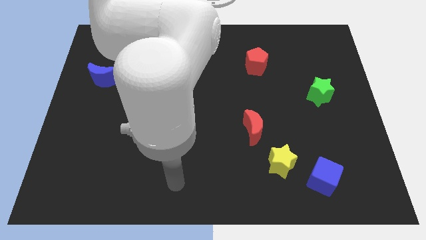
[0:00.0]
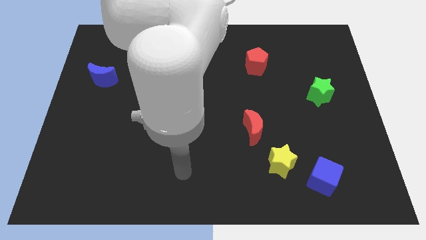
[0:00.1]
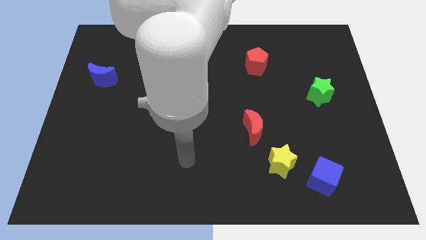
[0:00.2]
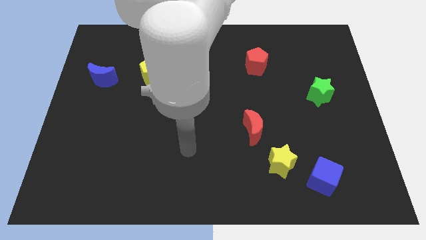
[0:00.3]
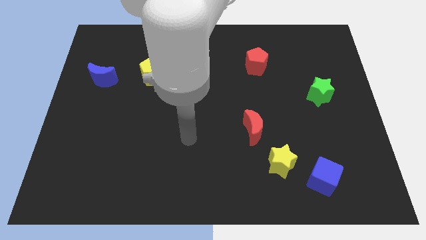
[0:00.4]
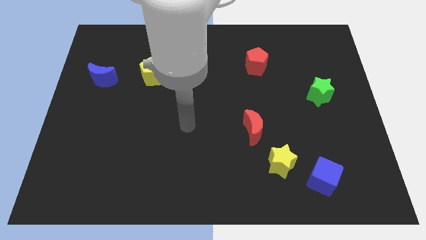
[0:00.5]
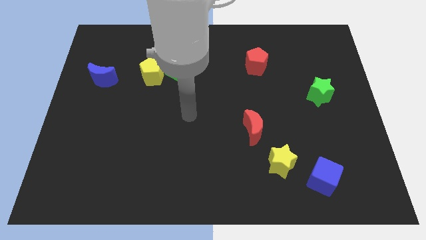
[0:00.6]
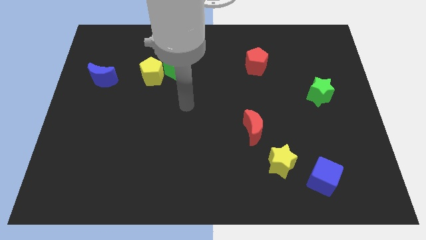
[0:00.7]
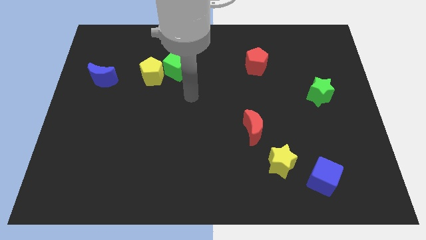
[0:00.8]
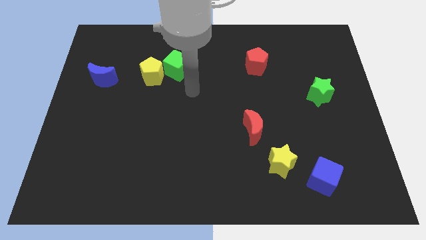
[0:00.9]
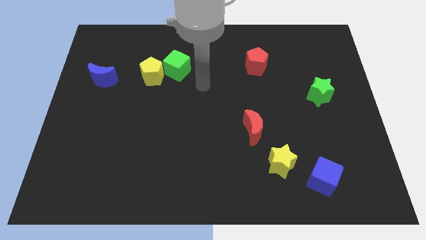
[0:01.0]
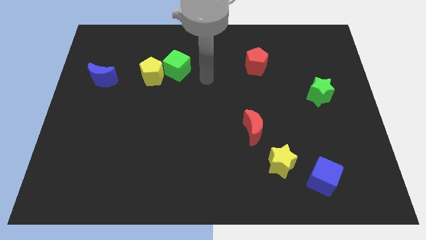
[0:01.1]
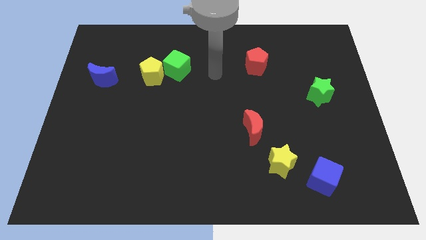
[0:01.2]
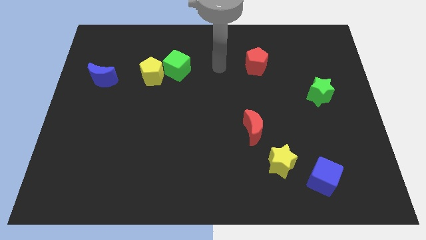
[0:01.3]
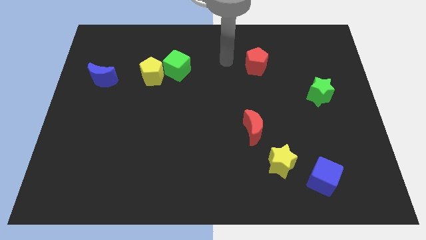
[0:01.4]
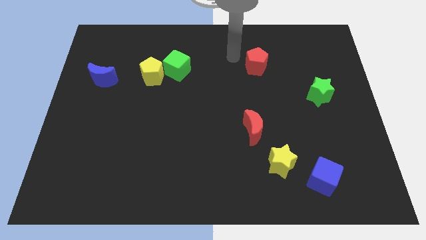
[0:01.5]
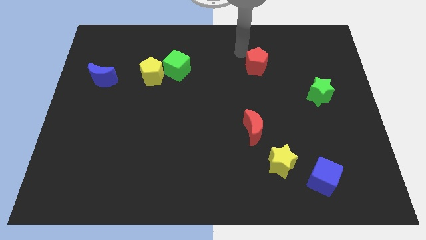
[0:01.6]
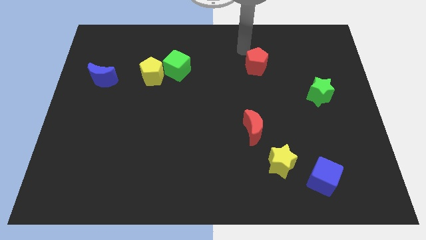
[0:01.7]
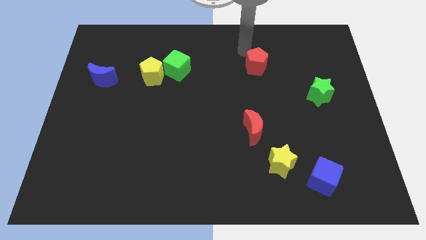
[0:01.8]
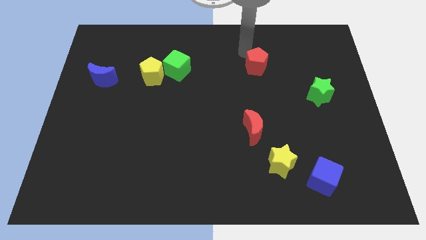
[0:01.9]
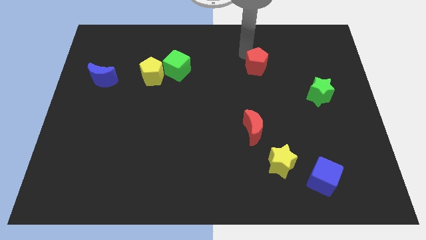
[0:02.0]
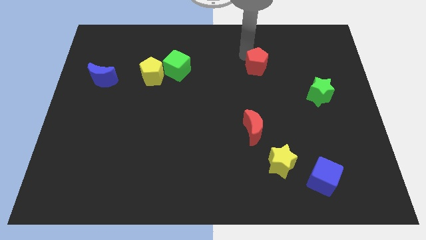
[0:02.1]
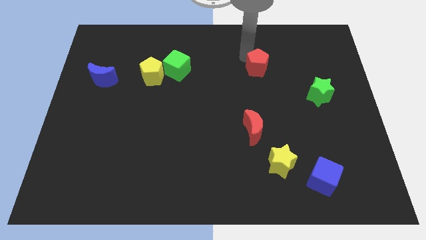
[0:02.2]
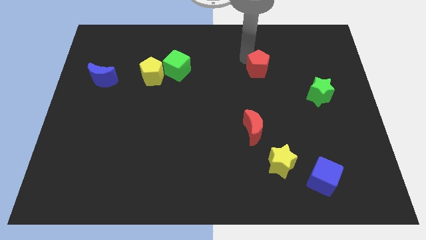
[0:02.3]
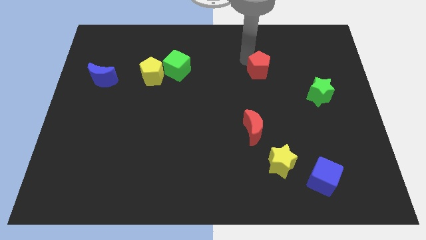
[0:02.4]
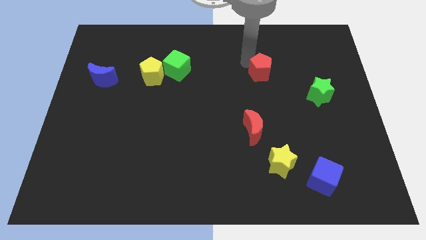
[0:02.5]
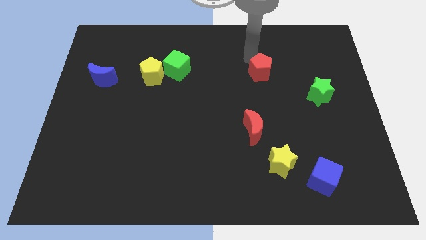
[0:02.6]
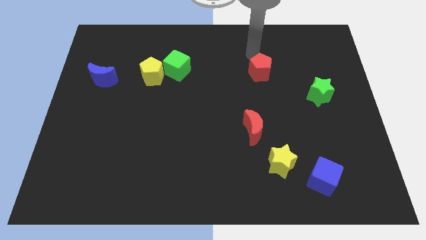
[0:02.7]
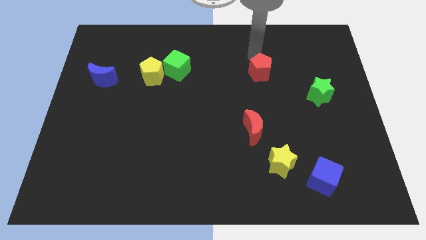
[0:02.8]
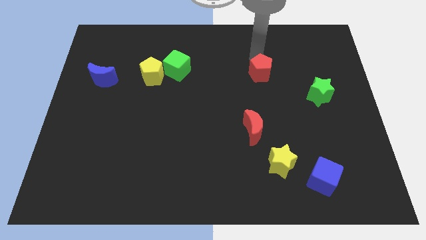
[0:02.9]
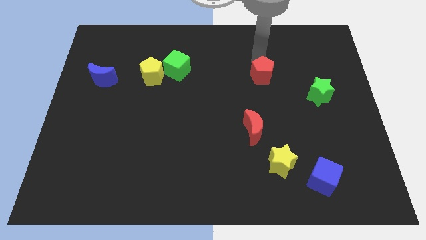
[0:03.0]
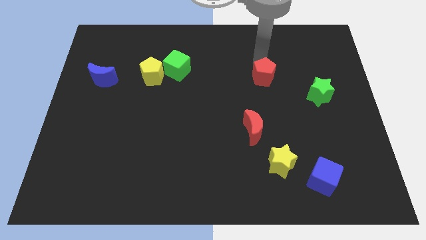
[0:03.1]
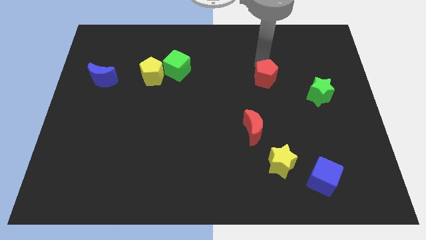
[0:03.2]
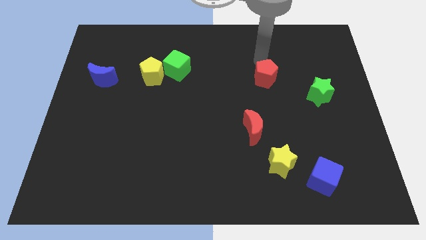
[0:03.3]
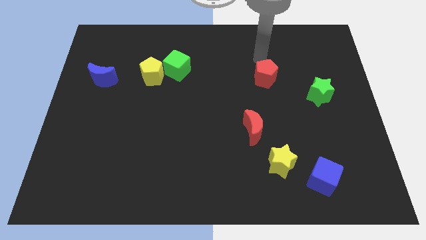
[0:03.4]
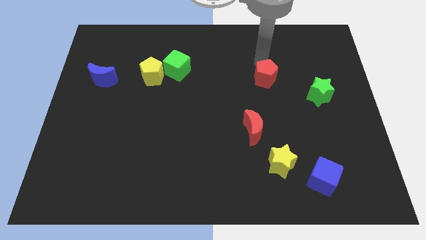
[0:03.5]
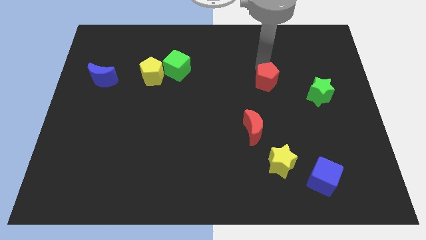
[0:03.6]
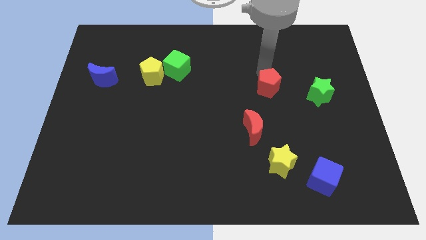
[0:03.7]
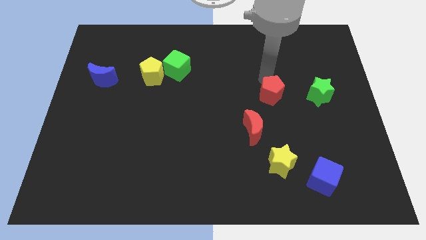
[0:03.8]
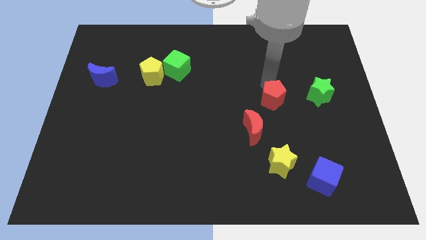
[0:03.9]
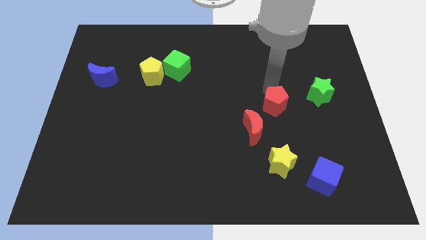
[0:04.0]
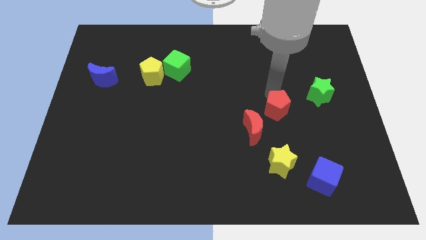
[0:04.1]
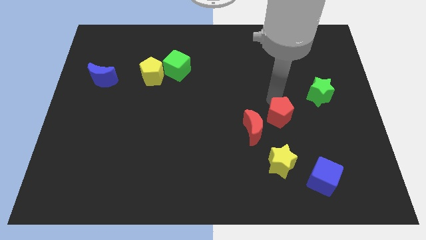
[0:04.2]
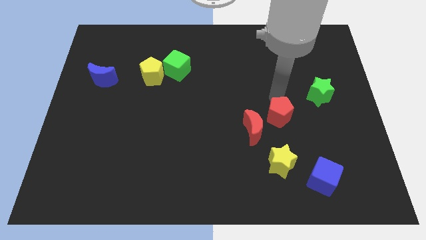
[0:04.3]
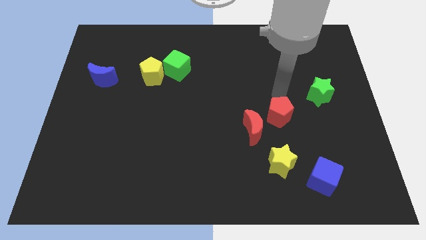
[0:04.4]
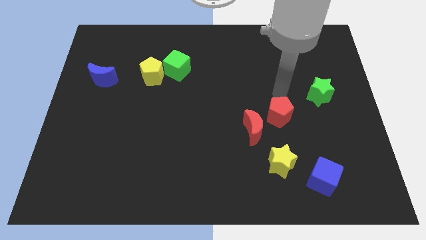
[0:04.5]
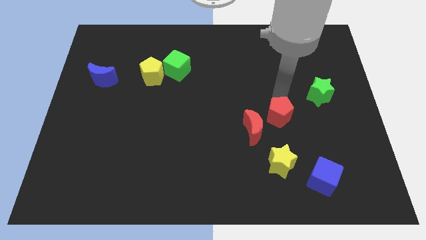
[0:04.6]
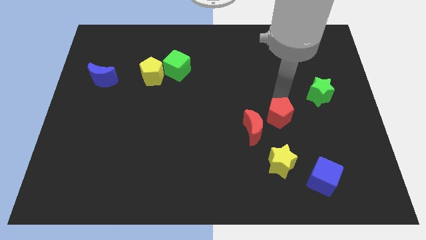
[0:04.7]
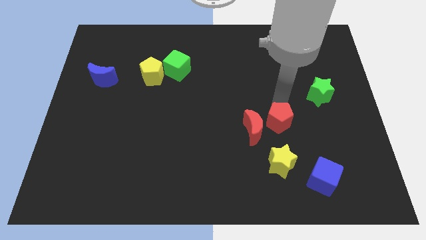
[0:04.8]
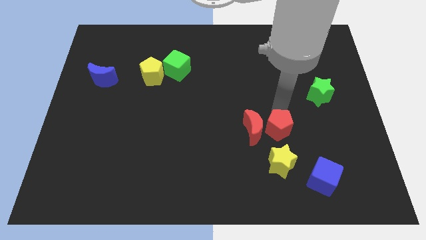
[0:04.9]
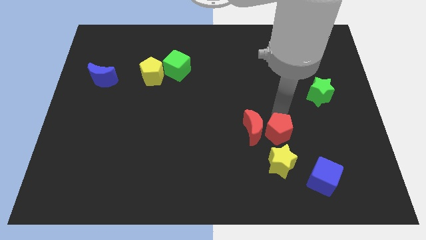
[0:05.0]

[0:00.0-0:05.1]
push the red pentagon down

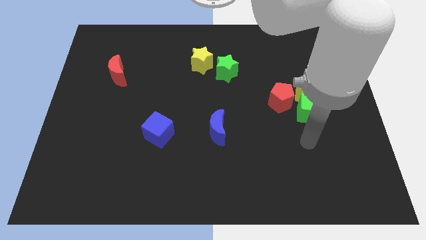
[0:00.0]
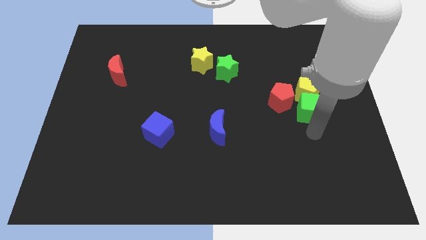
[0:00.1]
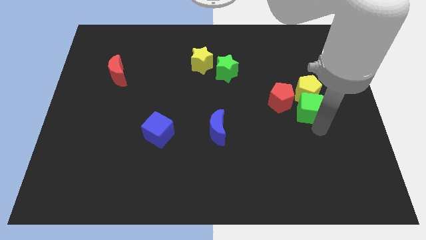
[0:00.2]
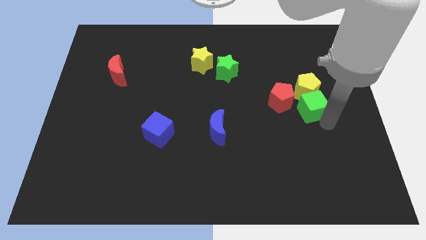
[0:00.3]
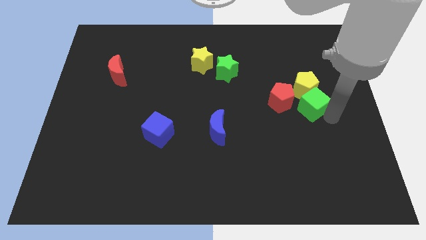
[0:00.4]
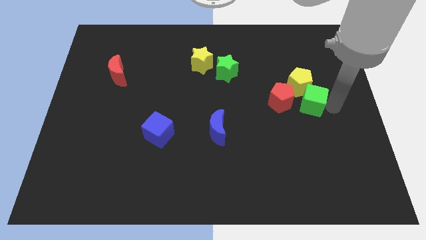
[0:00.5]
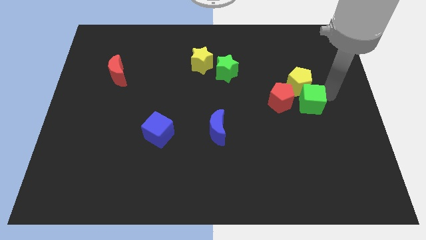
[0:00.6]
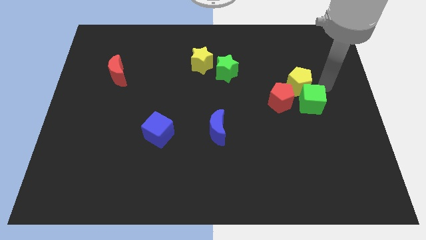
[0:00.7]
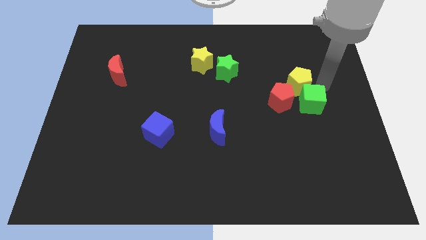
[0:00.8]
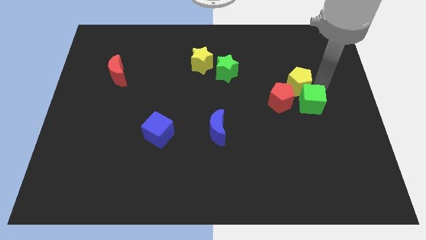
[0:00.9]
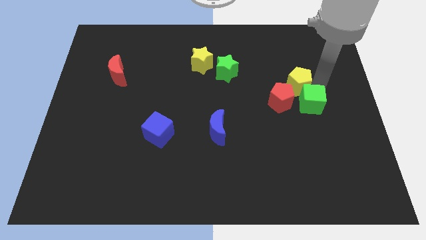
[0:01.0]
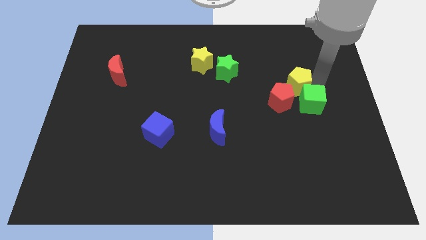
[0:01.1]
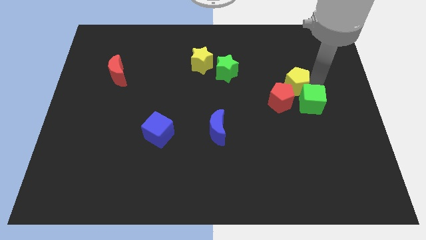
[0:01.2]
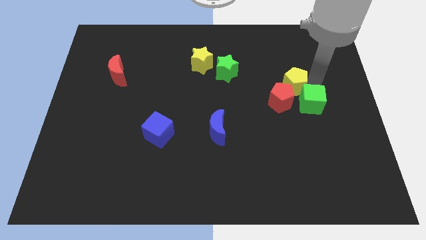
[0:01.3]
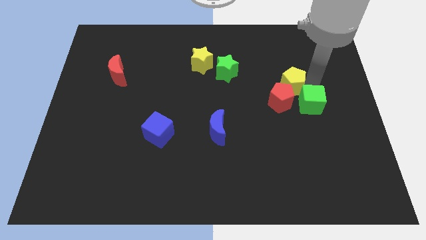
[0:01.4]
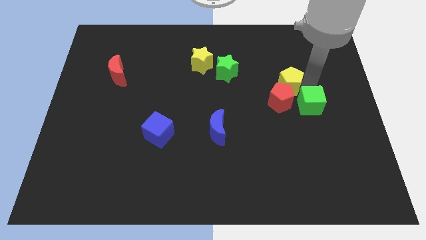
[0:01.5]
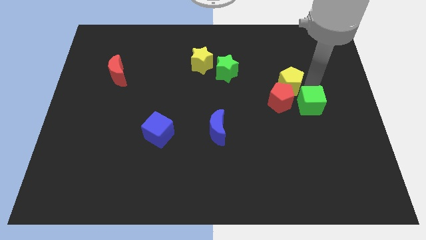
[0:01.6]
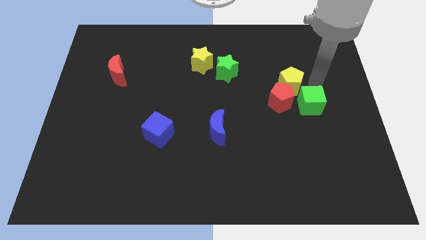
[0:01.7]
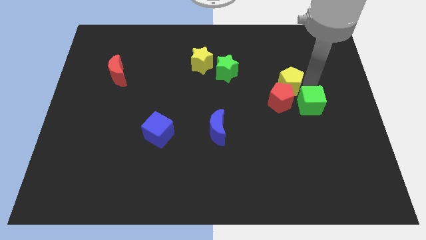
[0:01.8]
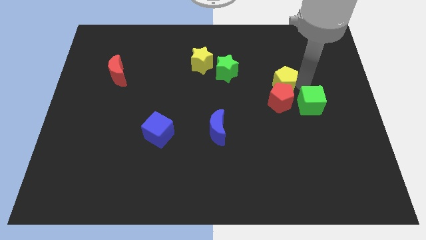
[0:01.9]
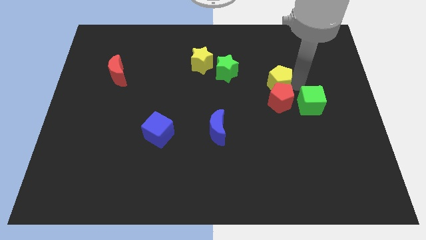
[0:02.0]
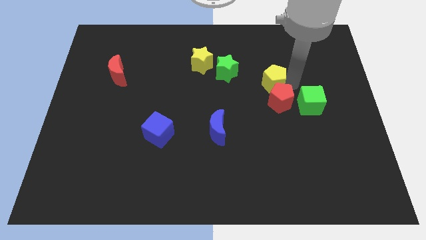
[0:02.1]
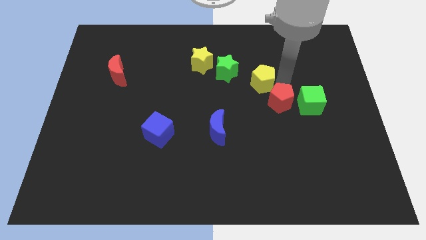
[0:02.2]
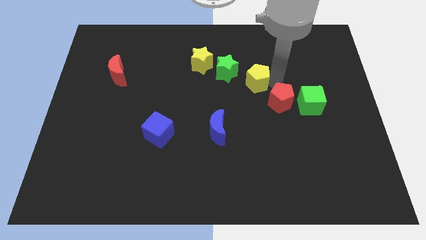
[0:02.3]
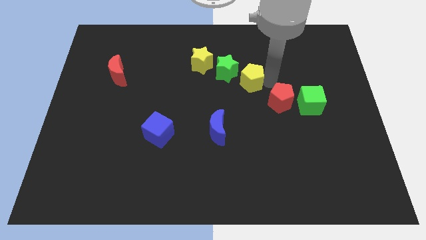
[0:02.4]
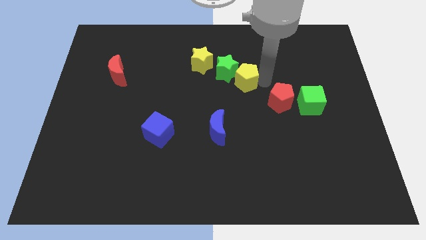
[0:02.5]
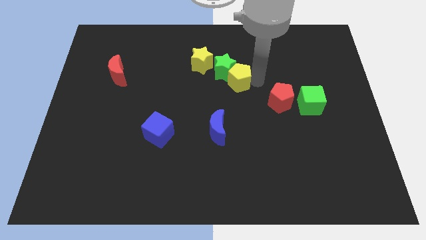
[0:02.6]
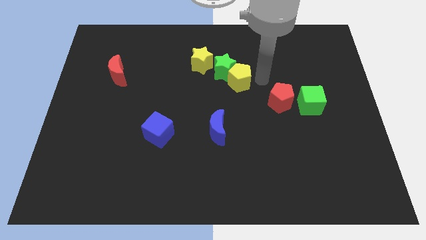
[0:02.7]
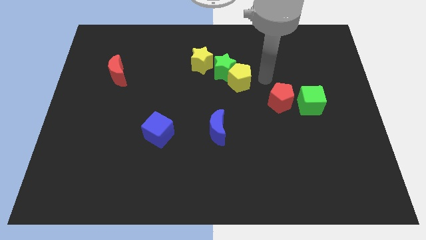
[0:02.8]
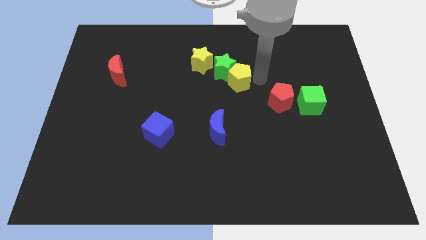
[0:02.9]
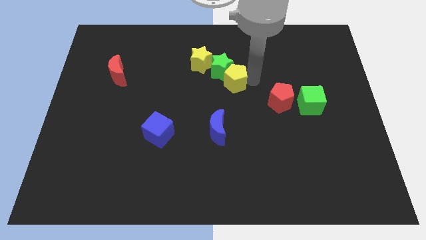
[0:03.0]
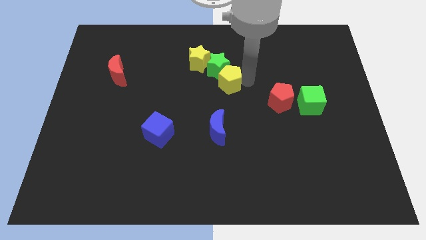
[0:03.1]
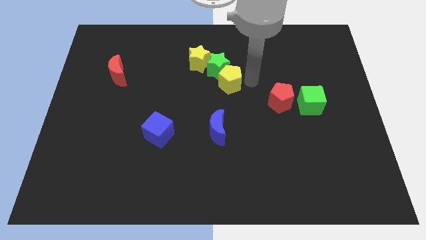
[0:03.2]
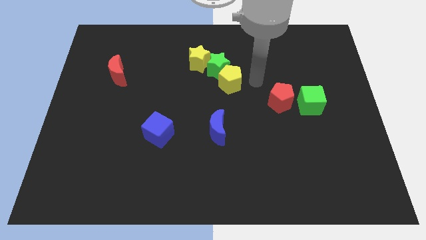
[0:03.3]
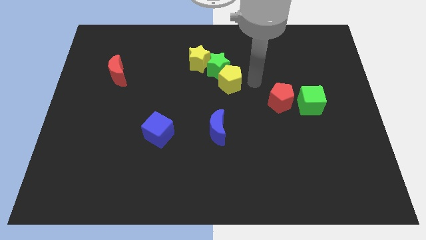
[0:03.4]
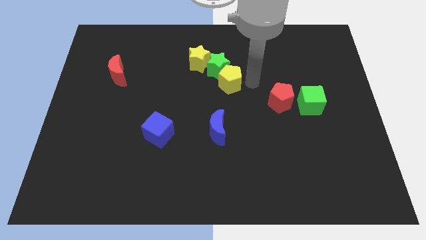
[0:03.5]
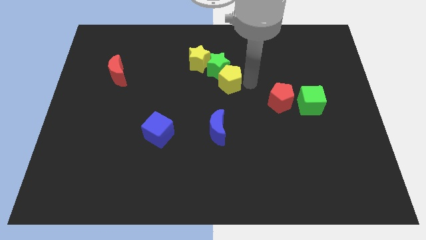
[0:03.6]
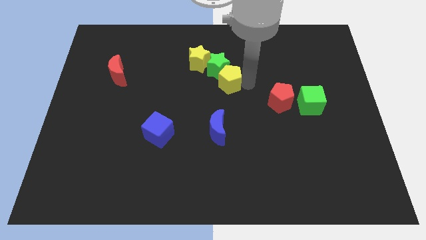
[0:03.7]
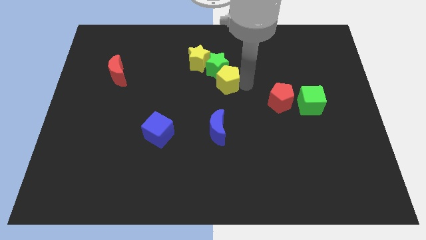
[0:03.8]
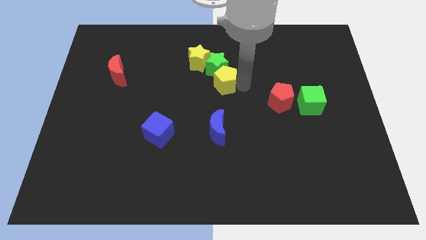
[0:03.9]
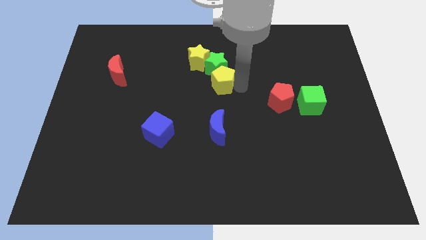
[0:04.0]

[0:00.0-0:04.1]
slide the yellow pentagon to the left
